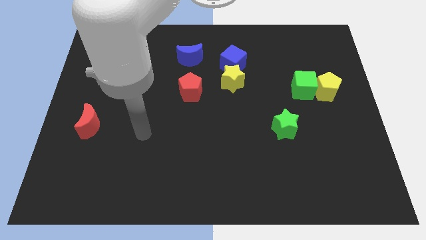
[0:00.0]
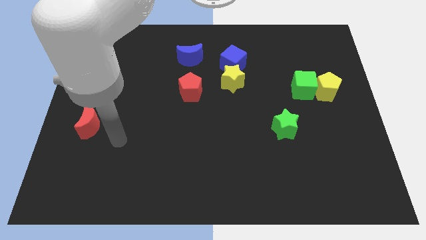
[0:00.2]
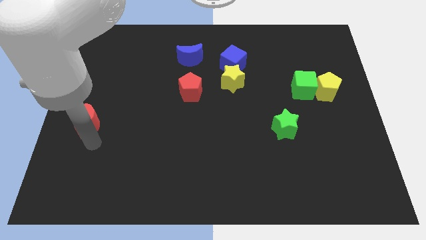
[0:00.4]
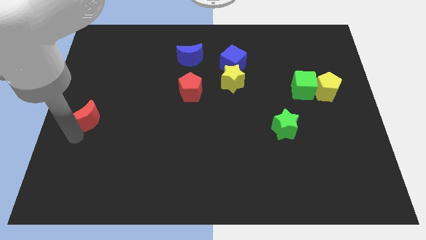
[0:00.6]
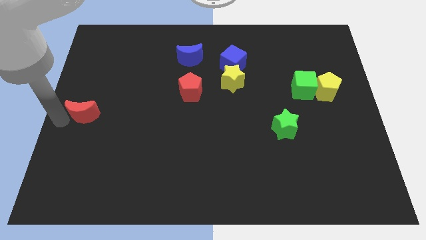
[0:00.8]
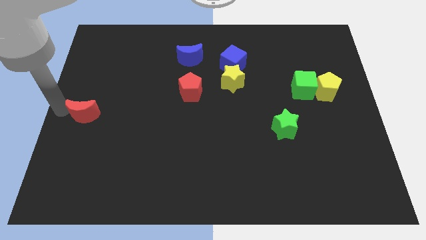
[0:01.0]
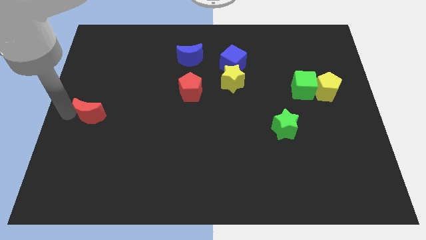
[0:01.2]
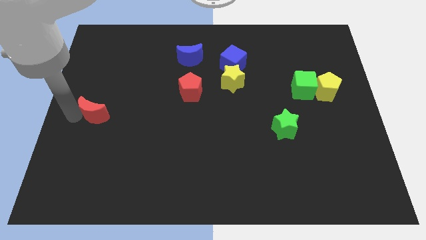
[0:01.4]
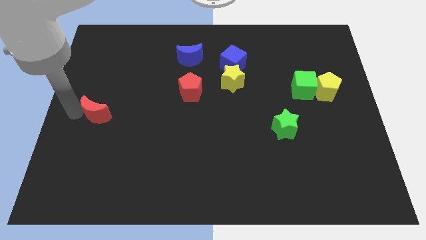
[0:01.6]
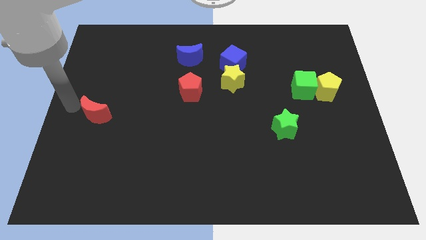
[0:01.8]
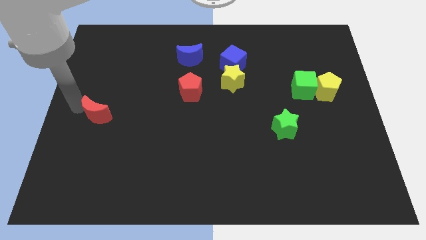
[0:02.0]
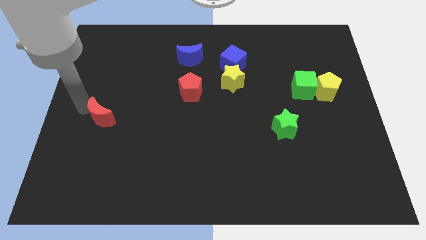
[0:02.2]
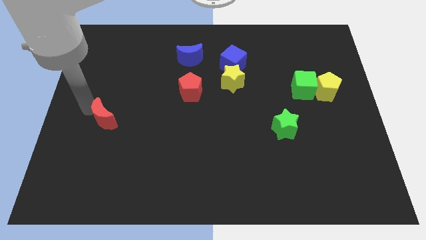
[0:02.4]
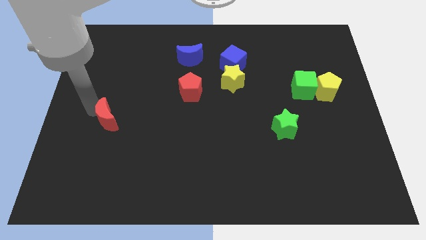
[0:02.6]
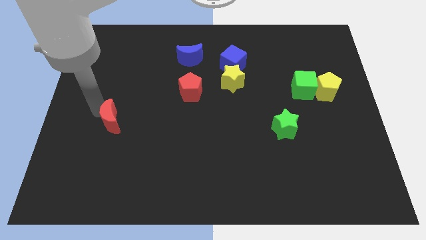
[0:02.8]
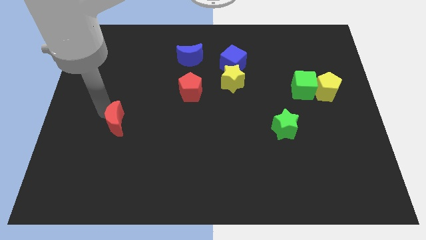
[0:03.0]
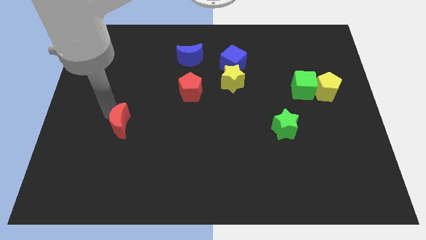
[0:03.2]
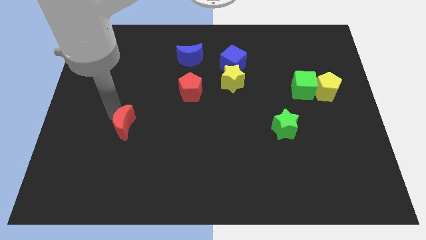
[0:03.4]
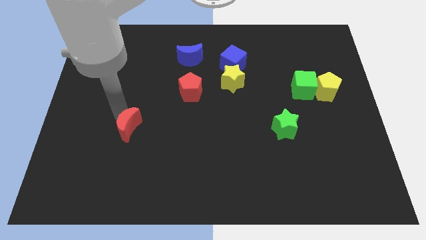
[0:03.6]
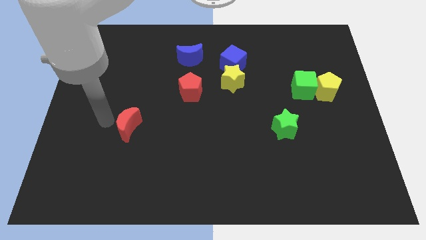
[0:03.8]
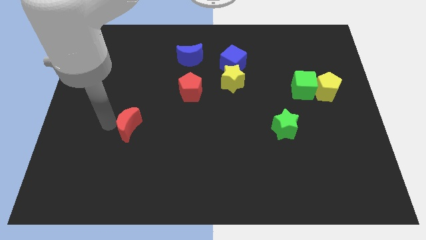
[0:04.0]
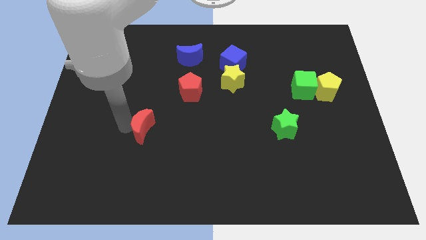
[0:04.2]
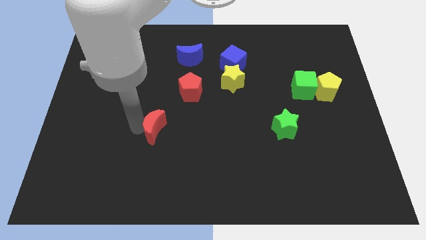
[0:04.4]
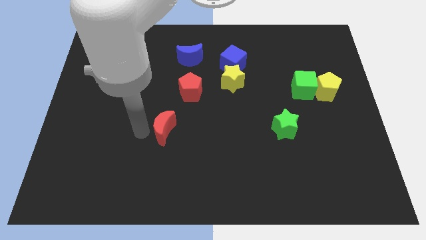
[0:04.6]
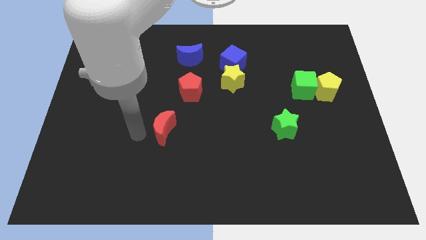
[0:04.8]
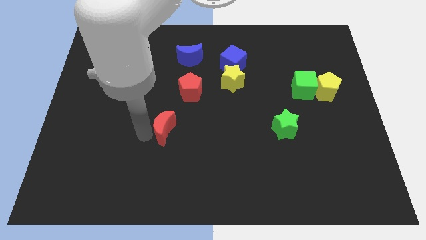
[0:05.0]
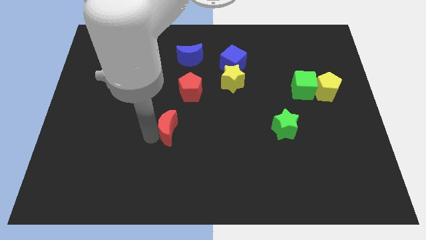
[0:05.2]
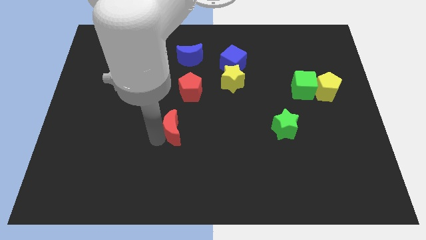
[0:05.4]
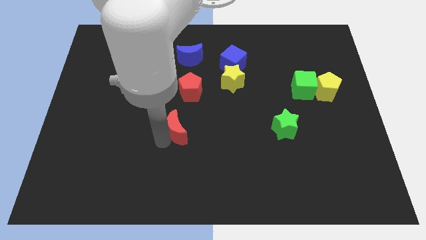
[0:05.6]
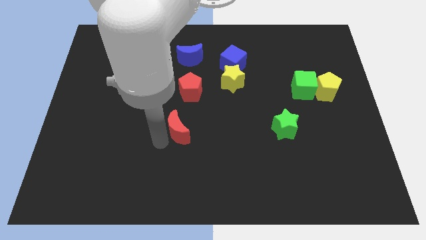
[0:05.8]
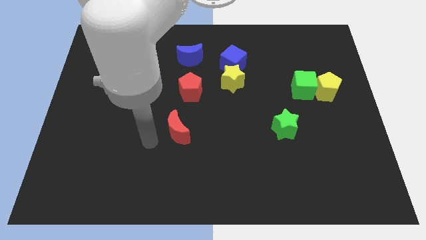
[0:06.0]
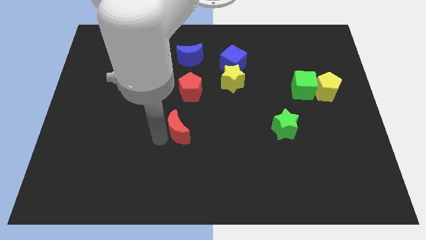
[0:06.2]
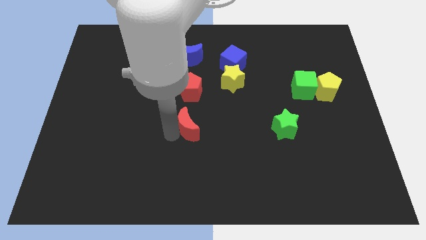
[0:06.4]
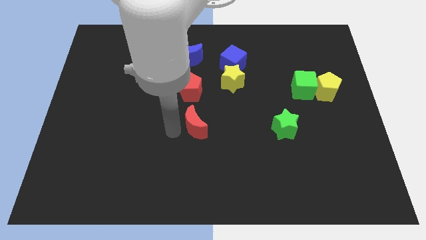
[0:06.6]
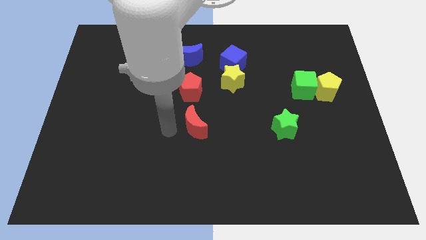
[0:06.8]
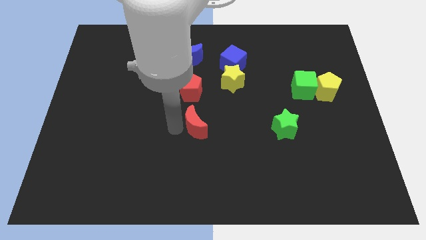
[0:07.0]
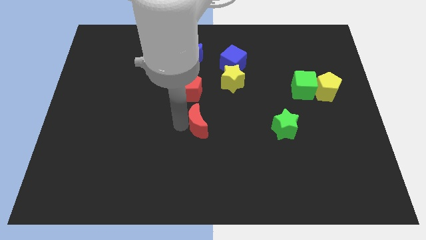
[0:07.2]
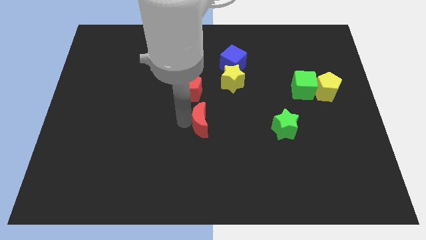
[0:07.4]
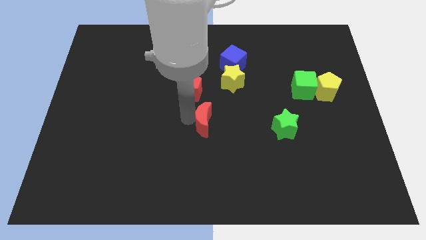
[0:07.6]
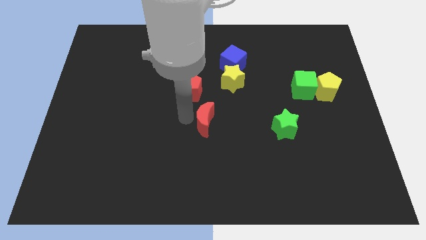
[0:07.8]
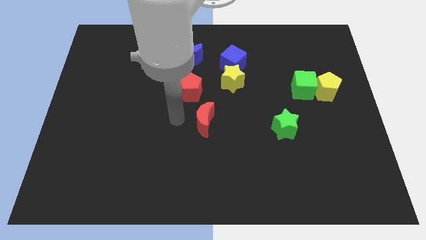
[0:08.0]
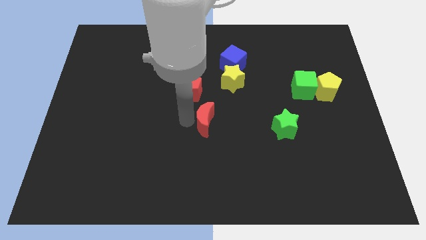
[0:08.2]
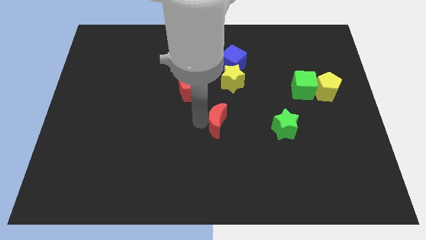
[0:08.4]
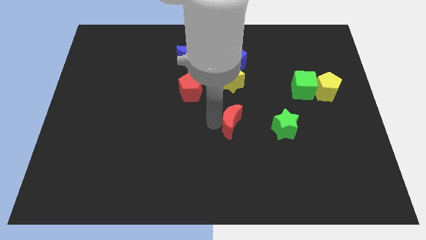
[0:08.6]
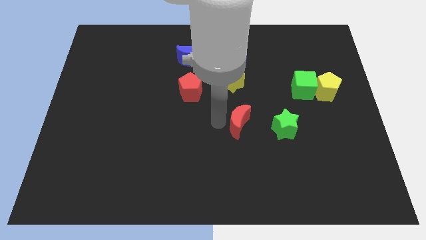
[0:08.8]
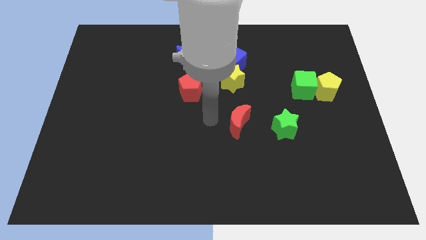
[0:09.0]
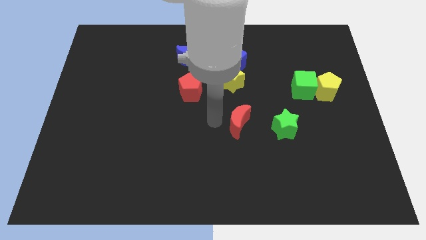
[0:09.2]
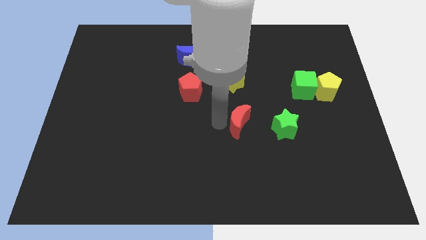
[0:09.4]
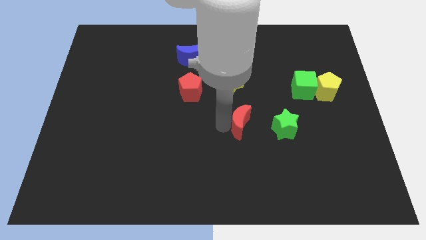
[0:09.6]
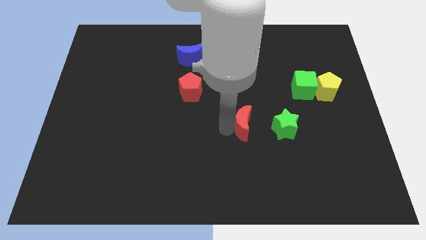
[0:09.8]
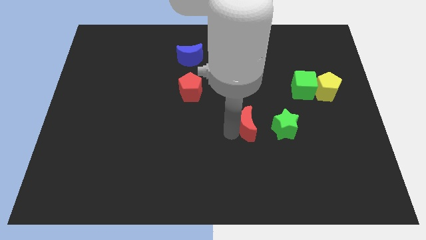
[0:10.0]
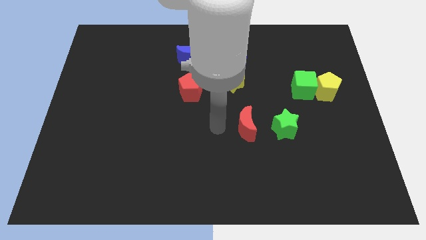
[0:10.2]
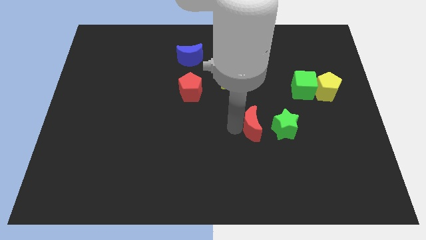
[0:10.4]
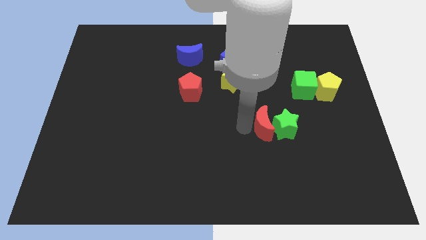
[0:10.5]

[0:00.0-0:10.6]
put the red moon towards the green star

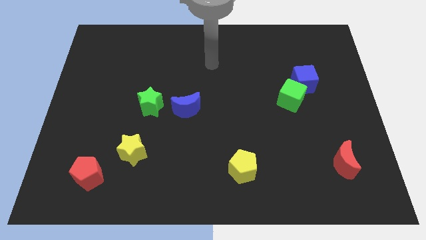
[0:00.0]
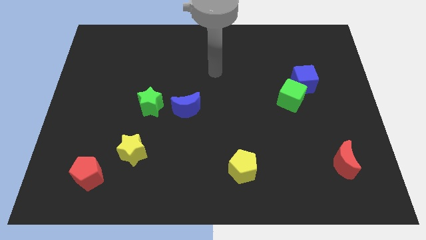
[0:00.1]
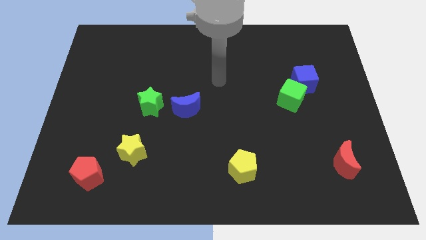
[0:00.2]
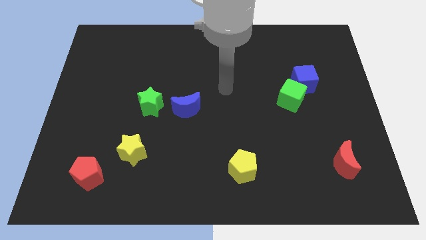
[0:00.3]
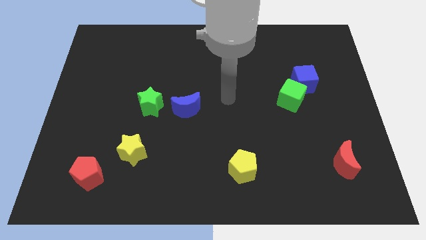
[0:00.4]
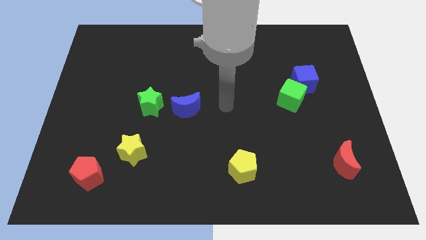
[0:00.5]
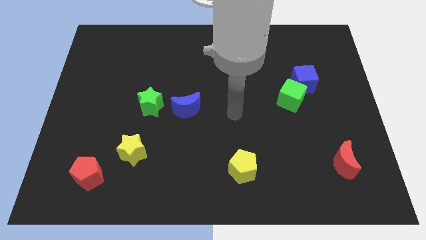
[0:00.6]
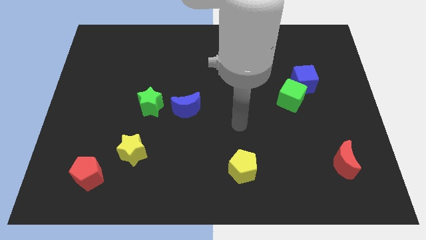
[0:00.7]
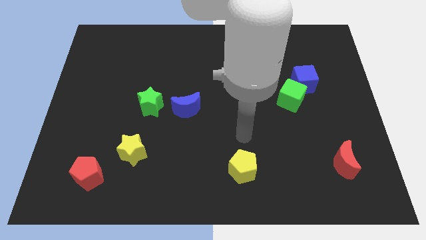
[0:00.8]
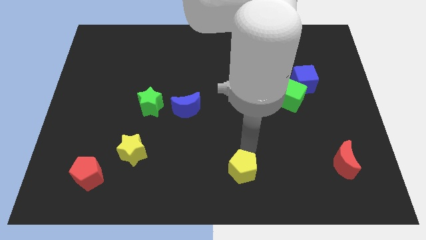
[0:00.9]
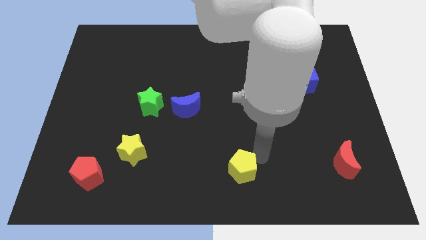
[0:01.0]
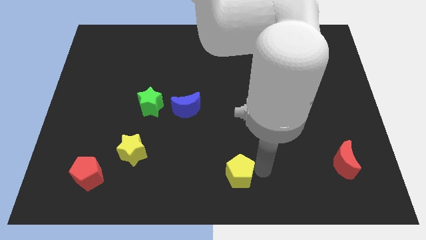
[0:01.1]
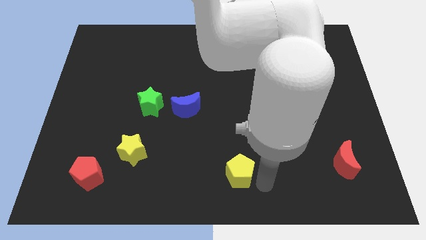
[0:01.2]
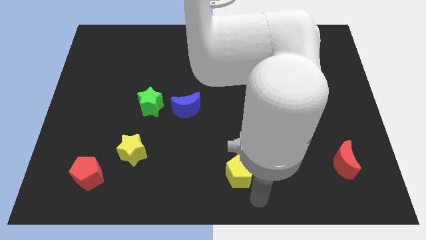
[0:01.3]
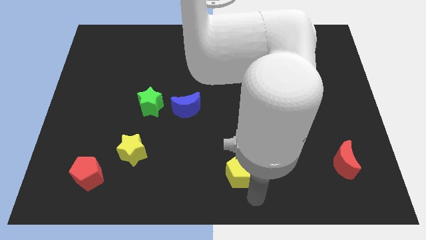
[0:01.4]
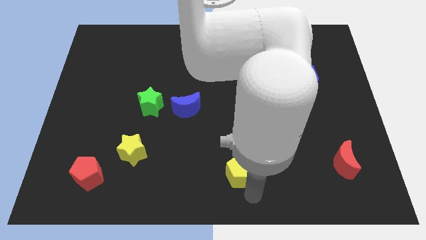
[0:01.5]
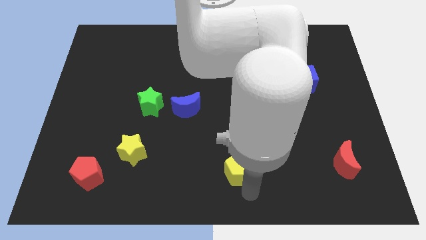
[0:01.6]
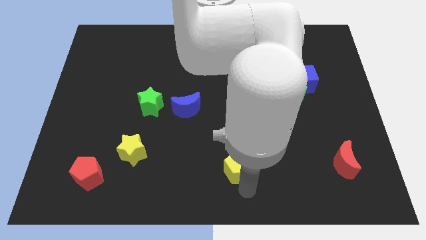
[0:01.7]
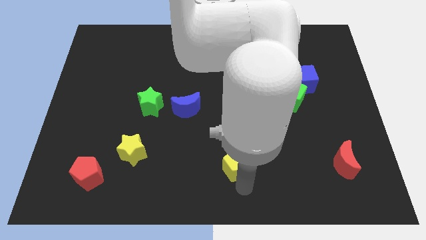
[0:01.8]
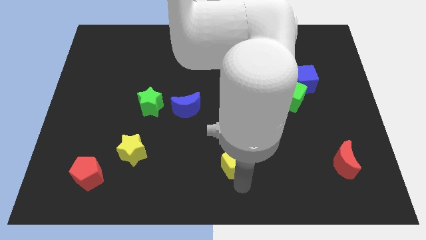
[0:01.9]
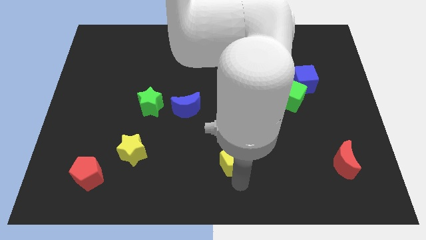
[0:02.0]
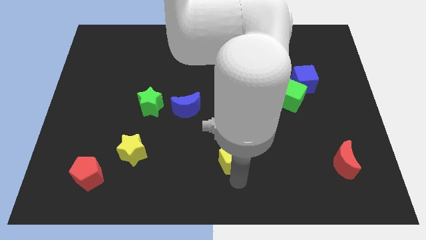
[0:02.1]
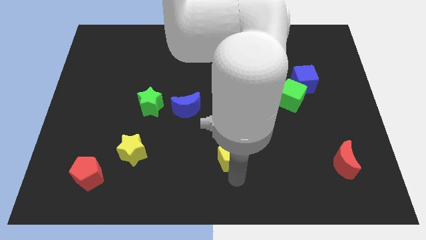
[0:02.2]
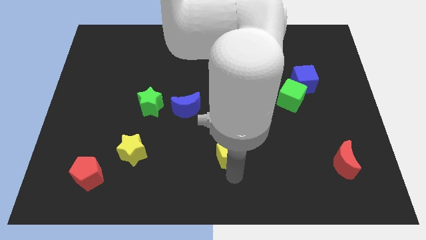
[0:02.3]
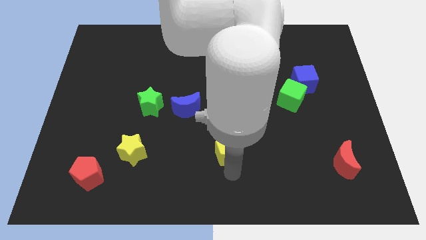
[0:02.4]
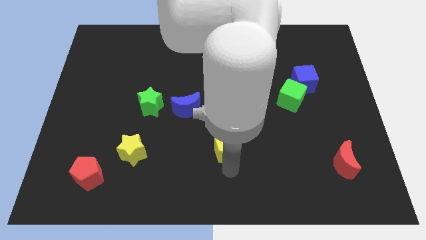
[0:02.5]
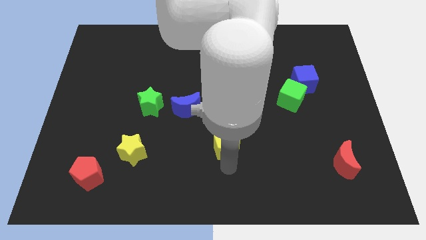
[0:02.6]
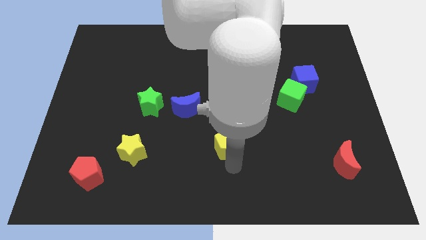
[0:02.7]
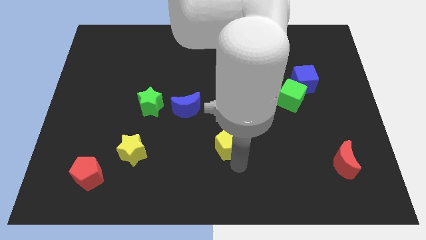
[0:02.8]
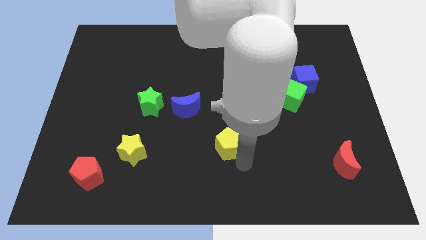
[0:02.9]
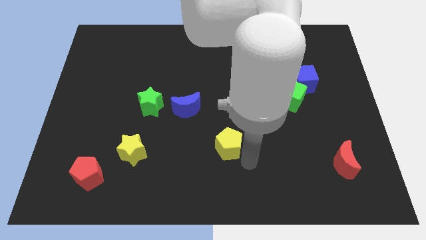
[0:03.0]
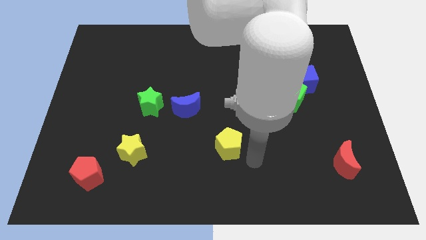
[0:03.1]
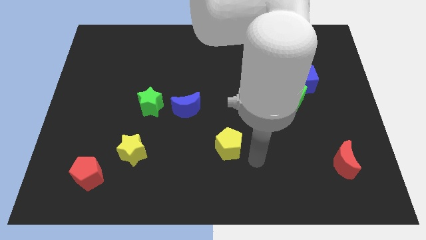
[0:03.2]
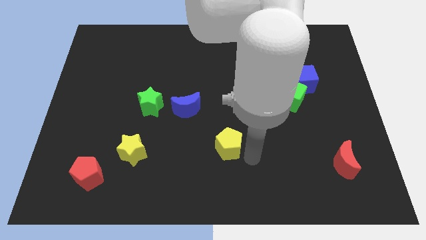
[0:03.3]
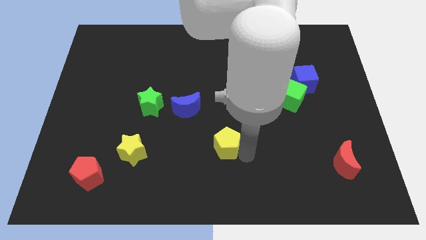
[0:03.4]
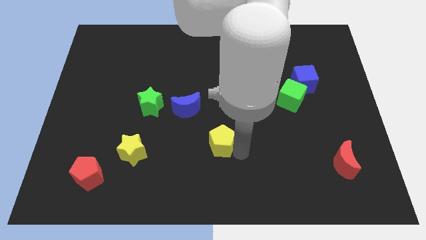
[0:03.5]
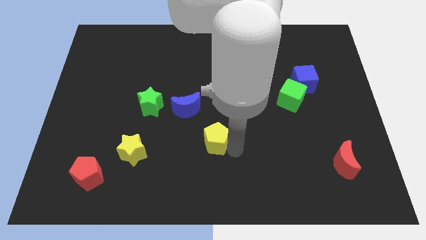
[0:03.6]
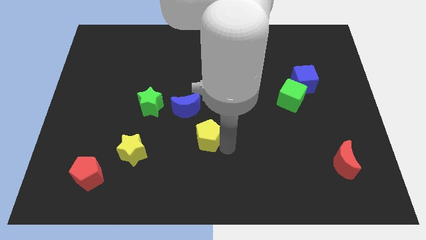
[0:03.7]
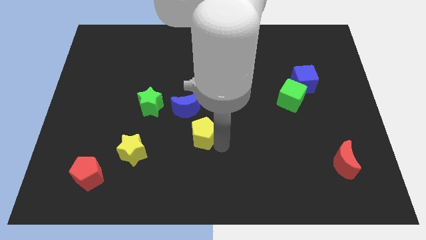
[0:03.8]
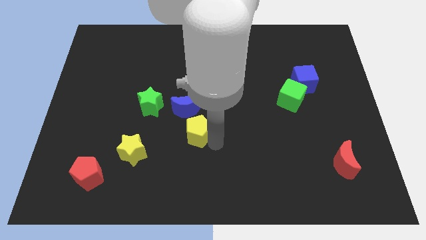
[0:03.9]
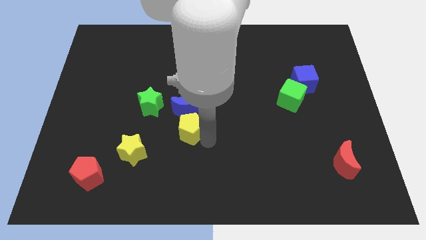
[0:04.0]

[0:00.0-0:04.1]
move the yellow pentagon next to the blue moon
